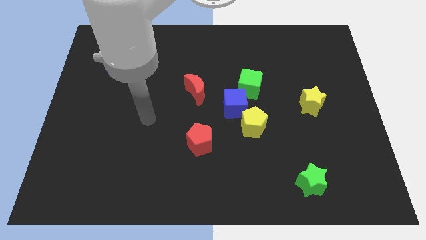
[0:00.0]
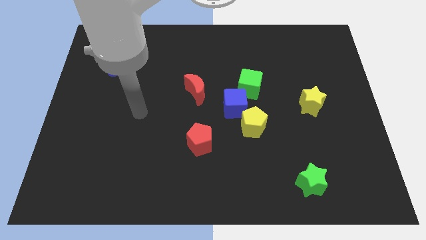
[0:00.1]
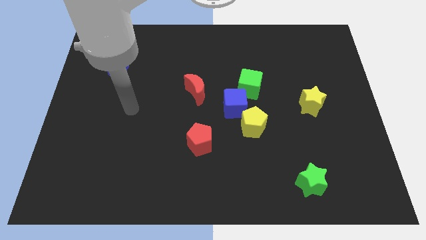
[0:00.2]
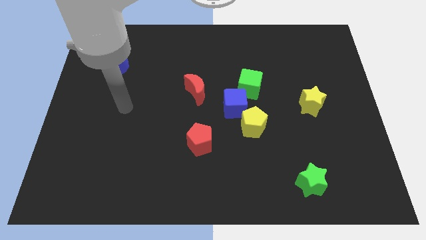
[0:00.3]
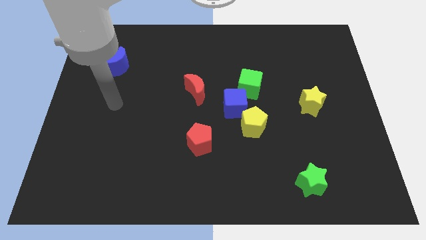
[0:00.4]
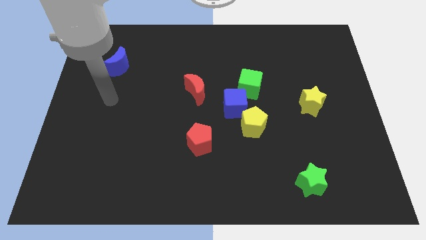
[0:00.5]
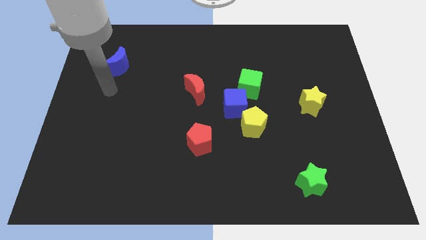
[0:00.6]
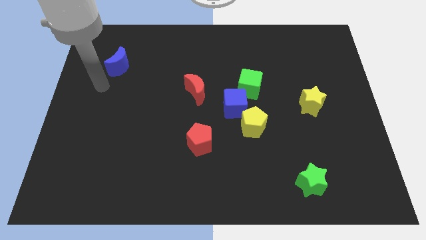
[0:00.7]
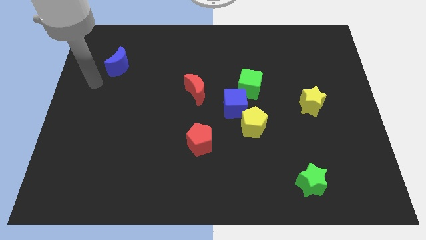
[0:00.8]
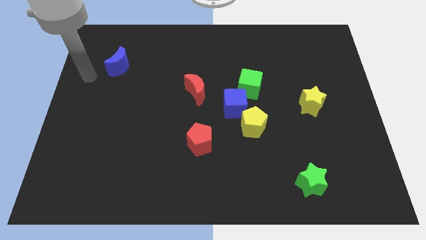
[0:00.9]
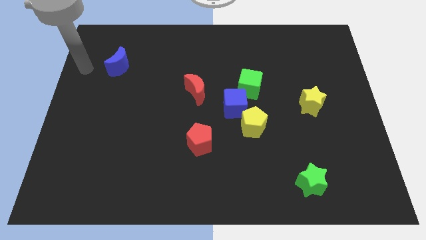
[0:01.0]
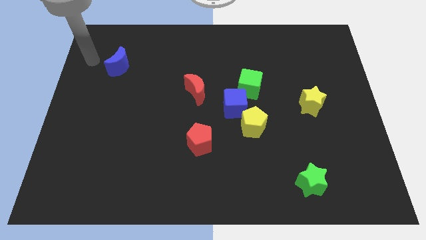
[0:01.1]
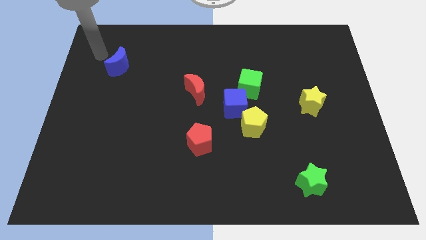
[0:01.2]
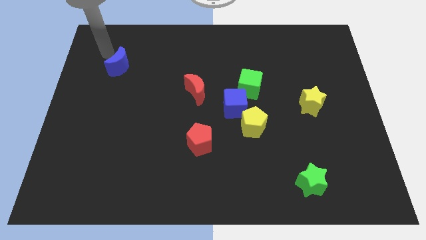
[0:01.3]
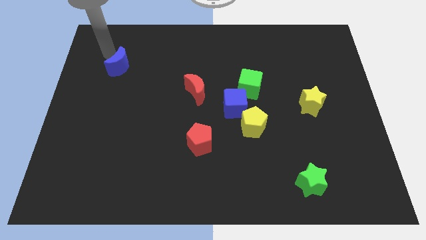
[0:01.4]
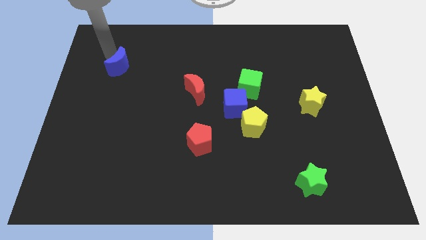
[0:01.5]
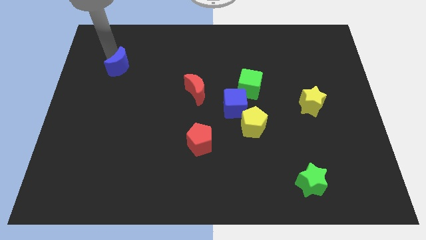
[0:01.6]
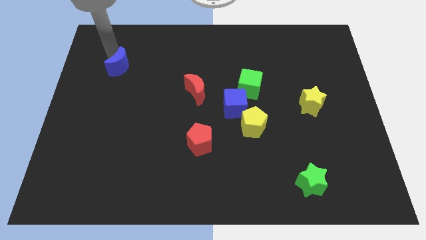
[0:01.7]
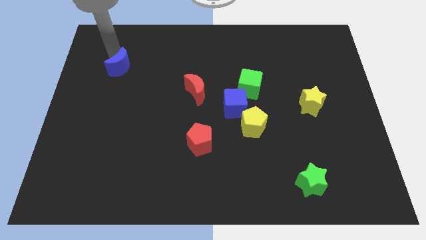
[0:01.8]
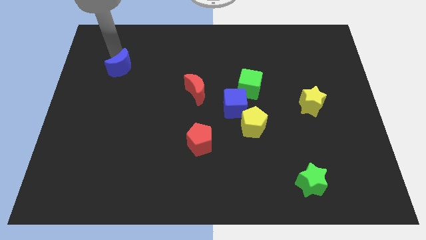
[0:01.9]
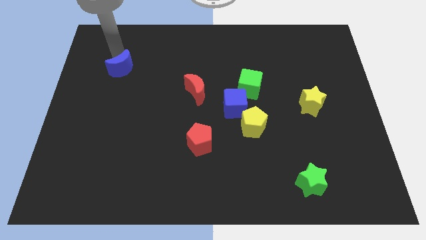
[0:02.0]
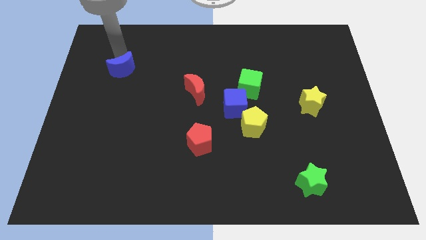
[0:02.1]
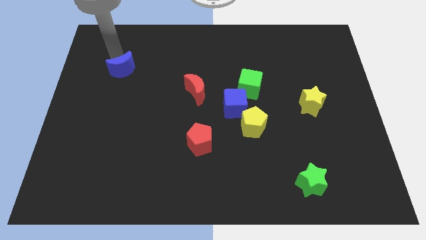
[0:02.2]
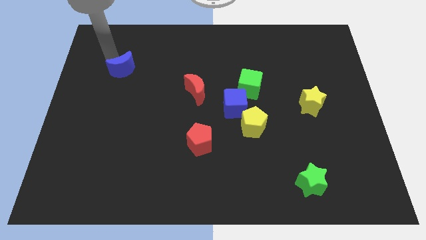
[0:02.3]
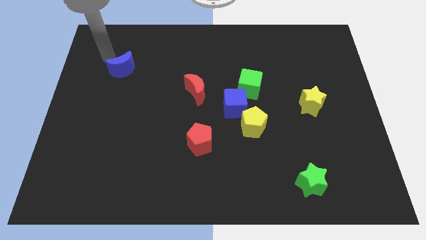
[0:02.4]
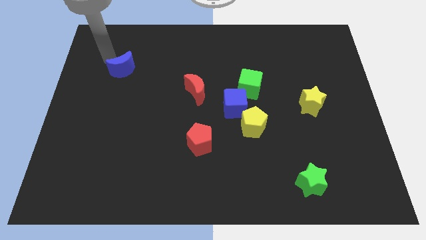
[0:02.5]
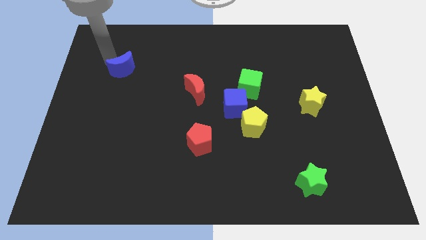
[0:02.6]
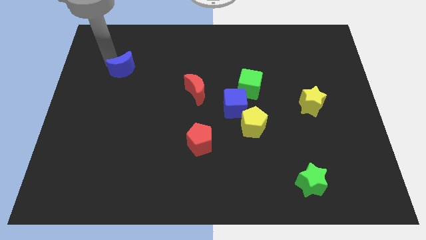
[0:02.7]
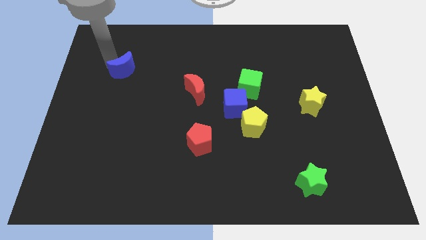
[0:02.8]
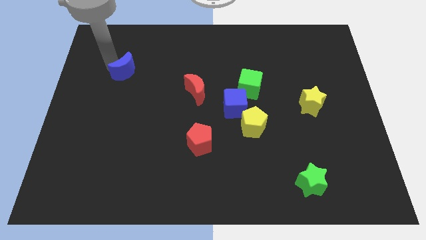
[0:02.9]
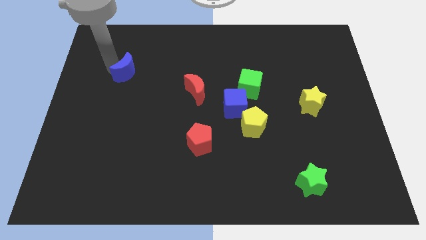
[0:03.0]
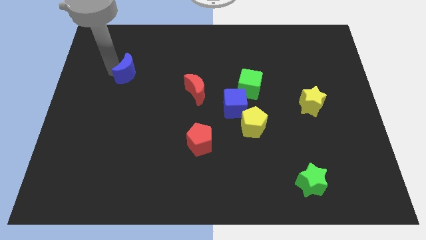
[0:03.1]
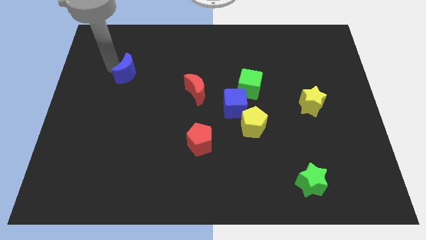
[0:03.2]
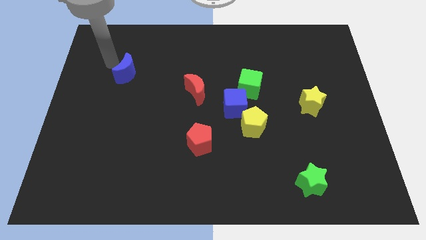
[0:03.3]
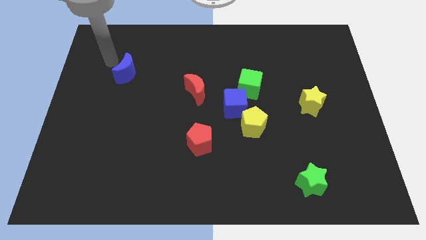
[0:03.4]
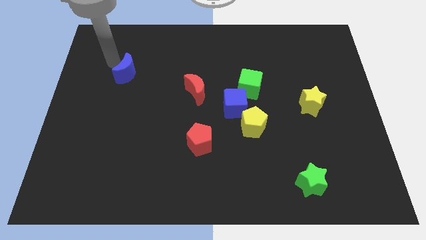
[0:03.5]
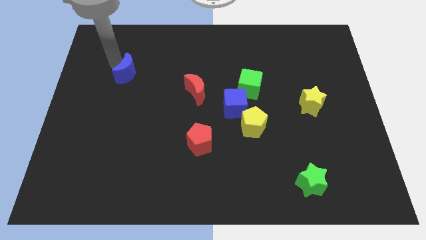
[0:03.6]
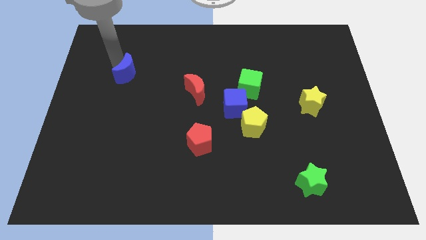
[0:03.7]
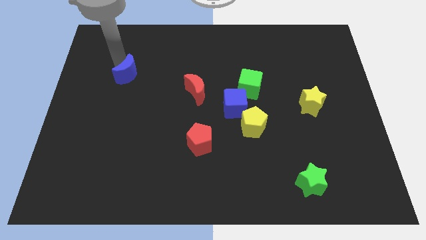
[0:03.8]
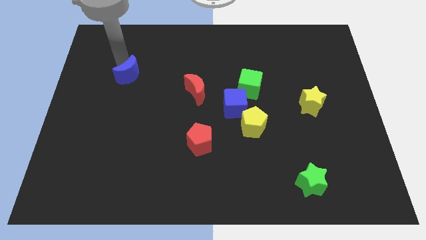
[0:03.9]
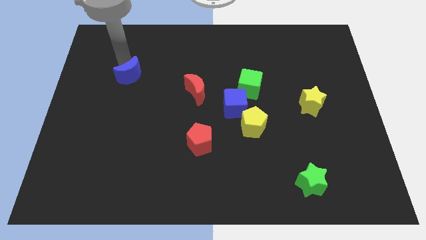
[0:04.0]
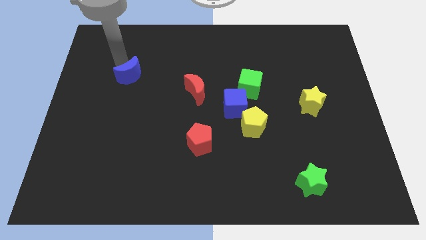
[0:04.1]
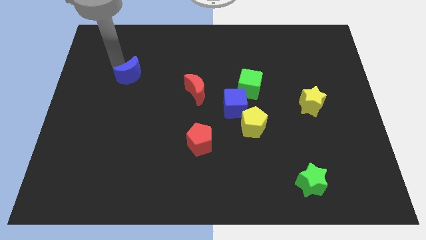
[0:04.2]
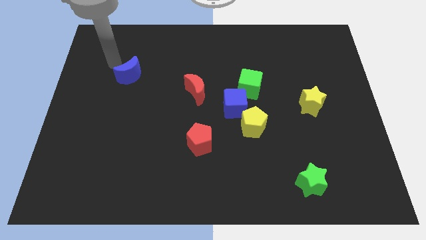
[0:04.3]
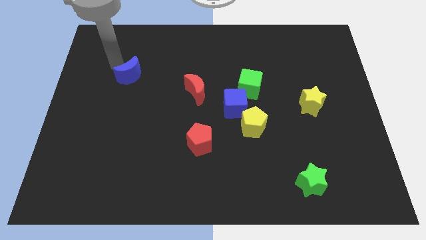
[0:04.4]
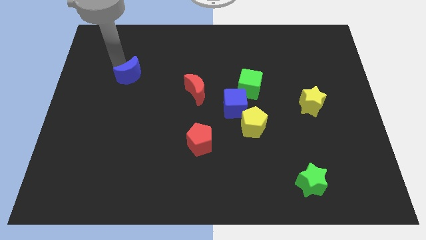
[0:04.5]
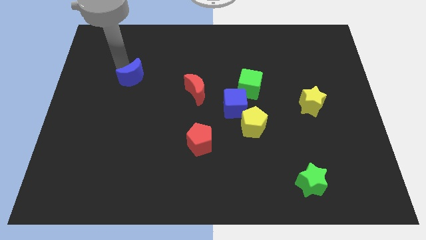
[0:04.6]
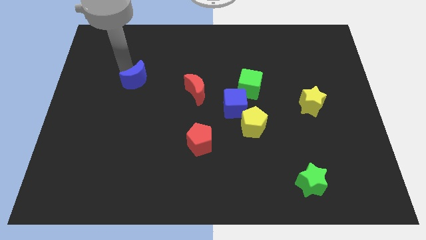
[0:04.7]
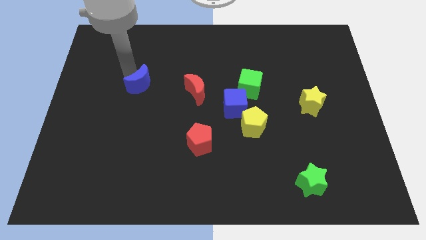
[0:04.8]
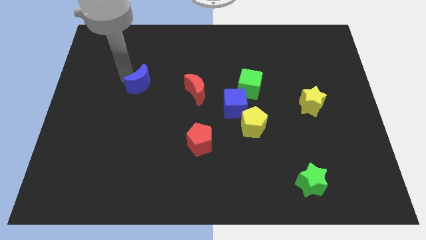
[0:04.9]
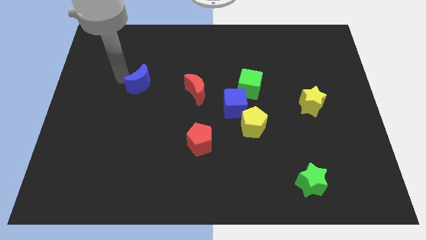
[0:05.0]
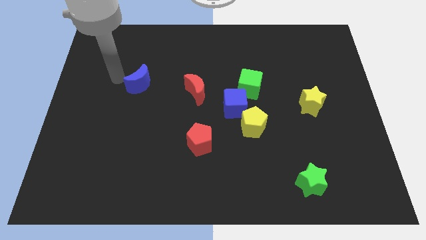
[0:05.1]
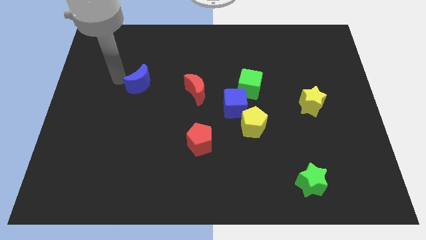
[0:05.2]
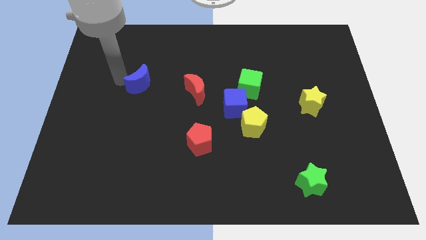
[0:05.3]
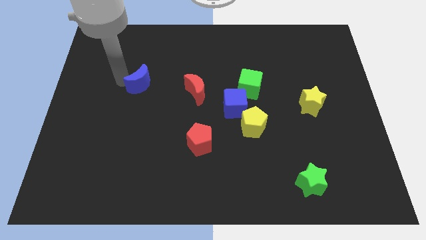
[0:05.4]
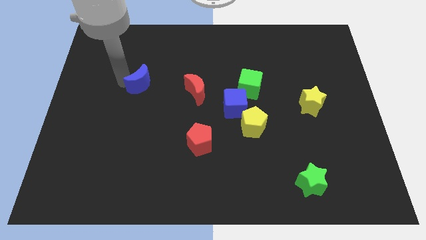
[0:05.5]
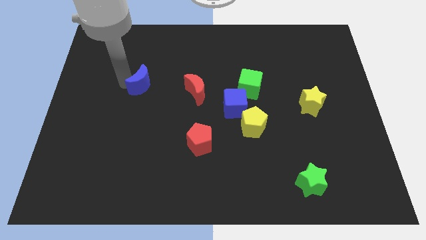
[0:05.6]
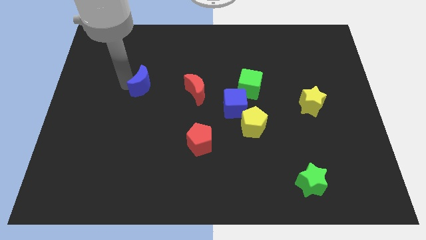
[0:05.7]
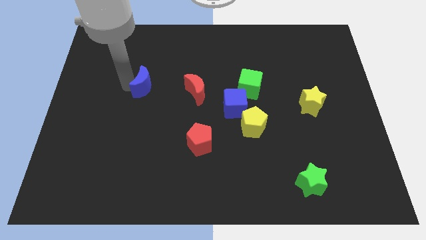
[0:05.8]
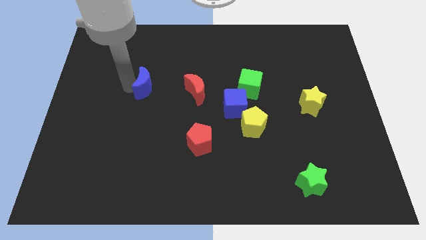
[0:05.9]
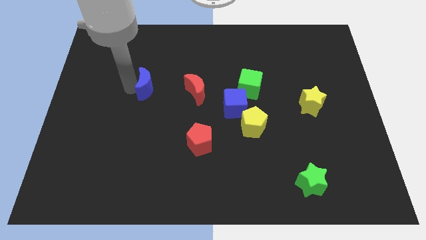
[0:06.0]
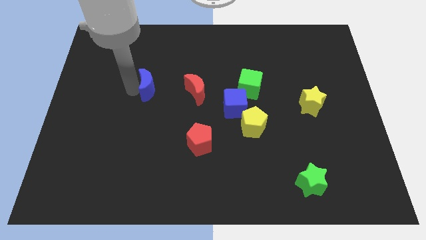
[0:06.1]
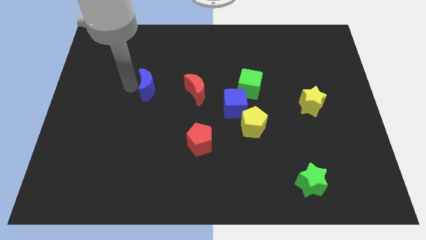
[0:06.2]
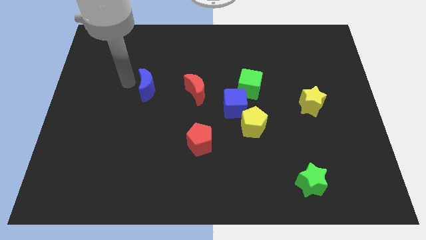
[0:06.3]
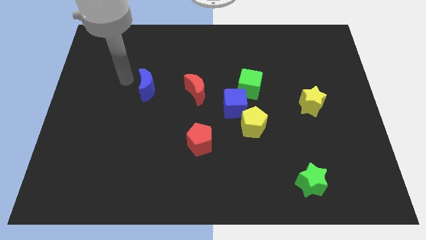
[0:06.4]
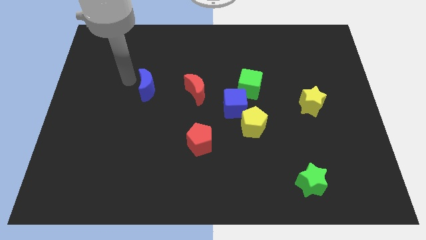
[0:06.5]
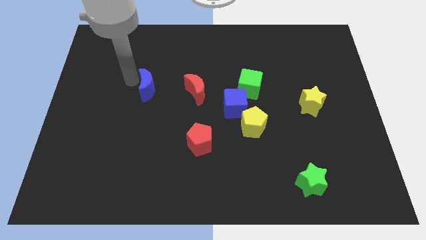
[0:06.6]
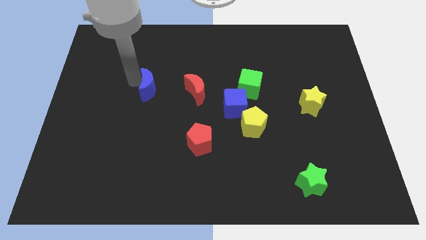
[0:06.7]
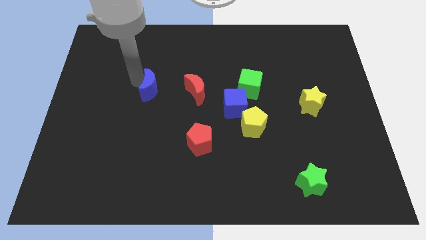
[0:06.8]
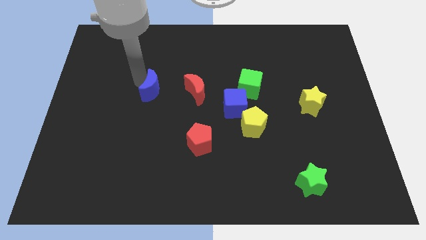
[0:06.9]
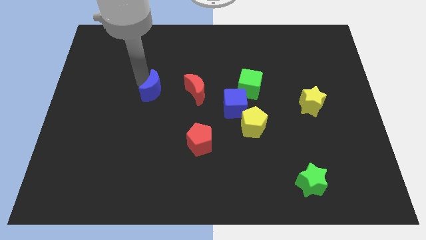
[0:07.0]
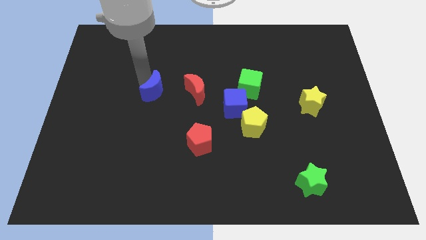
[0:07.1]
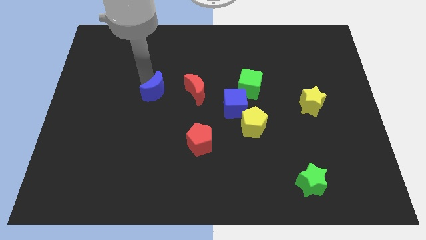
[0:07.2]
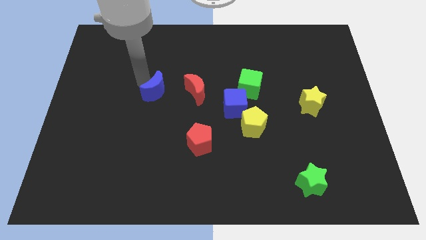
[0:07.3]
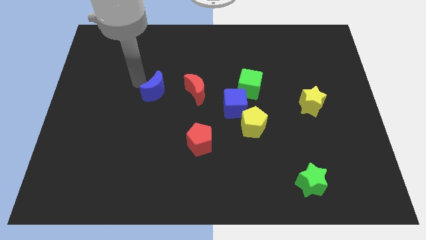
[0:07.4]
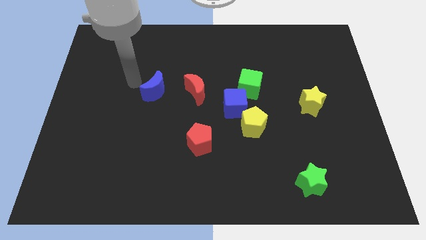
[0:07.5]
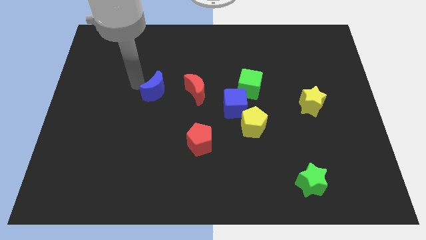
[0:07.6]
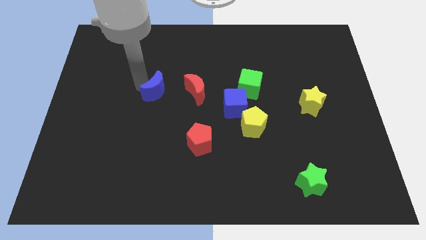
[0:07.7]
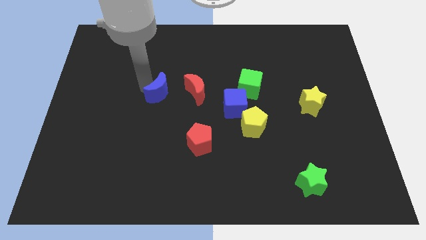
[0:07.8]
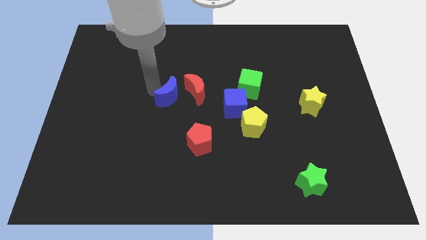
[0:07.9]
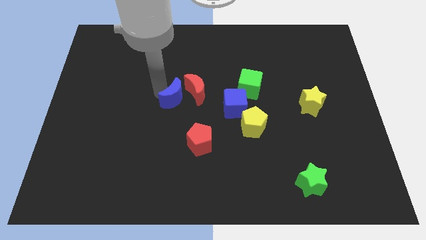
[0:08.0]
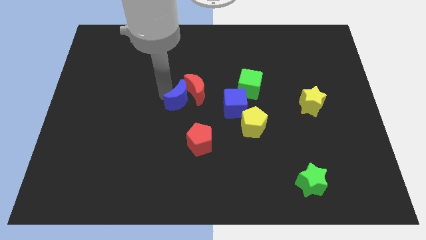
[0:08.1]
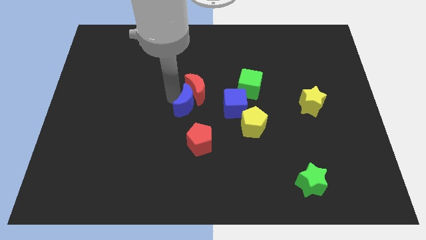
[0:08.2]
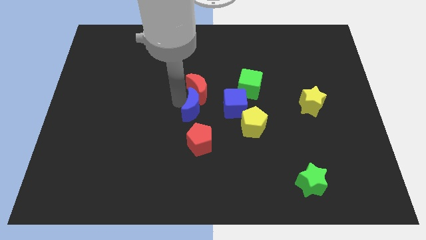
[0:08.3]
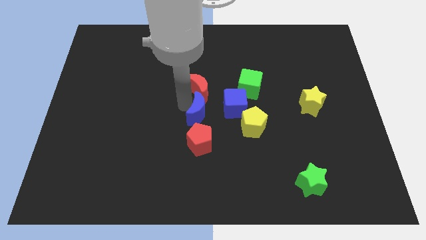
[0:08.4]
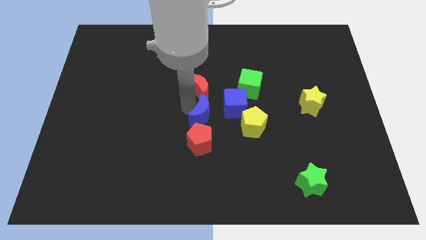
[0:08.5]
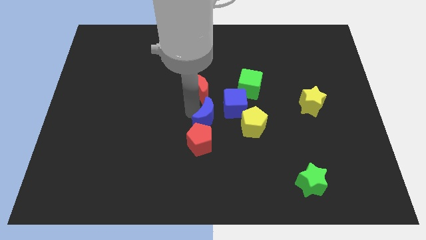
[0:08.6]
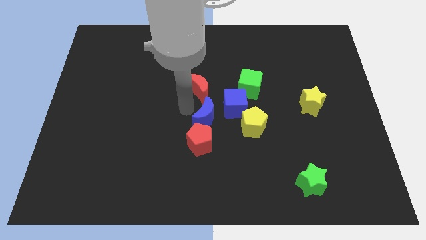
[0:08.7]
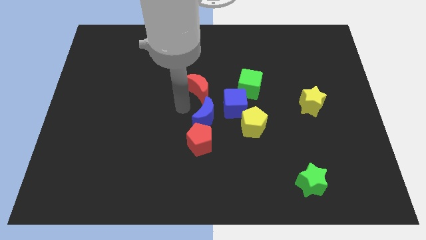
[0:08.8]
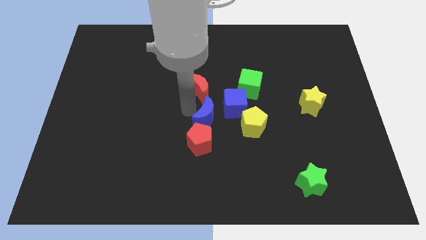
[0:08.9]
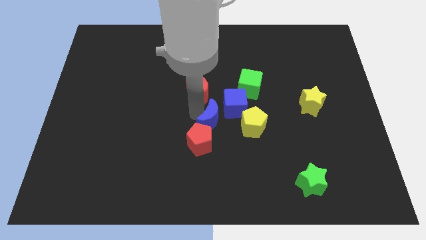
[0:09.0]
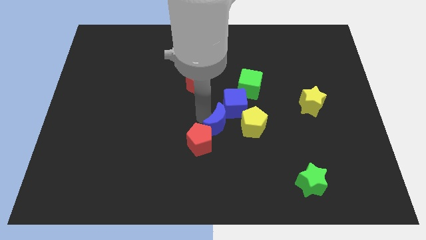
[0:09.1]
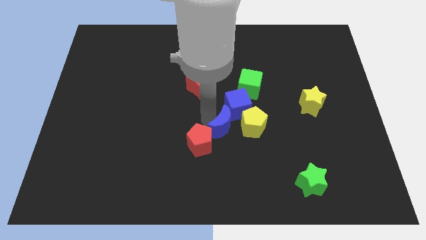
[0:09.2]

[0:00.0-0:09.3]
move the blue moon to the right side of the red pentagon
